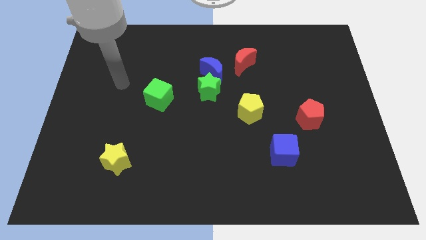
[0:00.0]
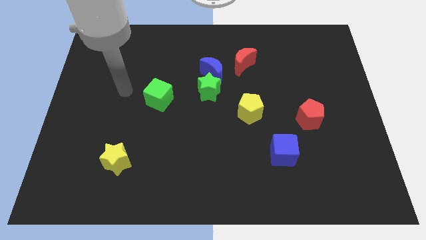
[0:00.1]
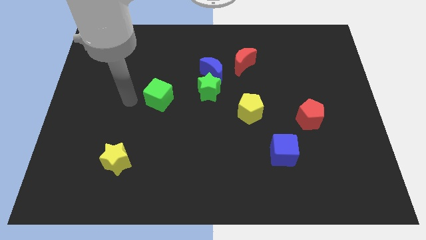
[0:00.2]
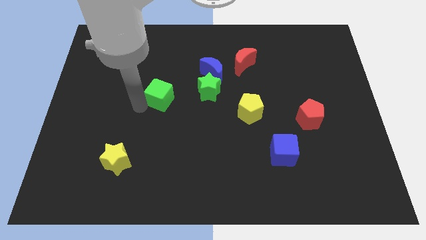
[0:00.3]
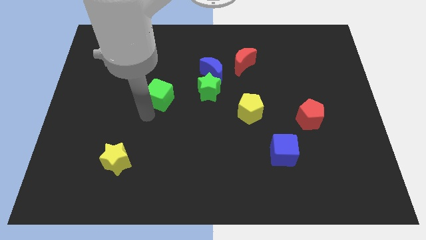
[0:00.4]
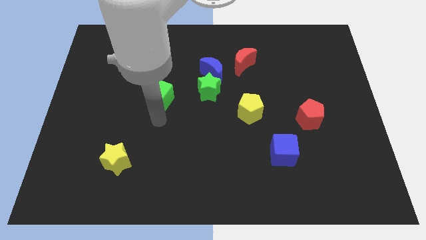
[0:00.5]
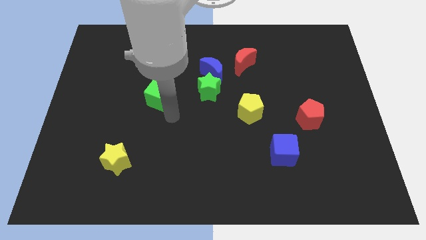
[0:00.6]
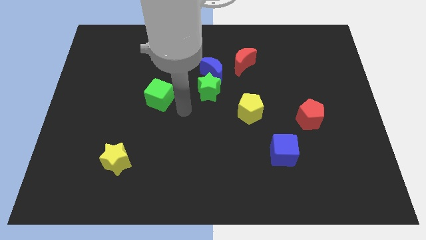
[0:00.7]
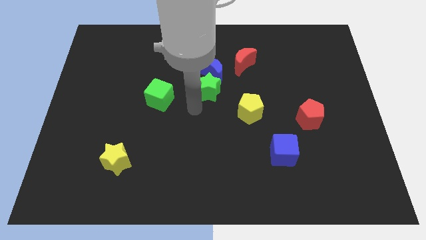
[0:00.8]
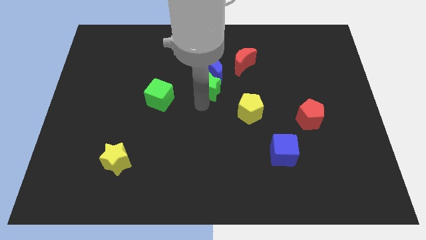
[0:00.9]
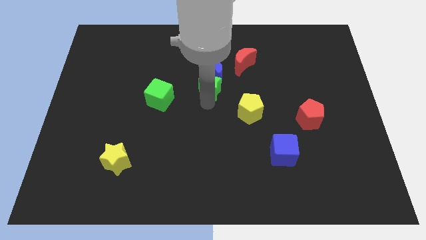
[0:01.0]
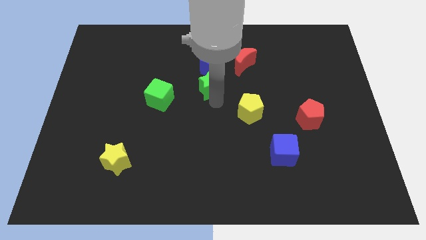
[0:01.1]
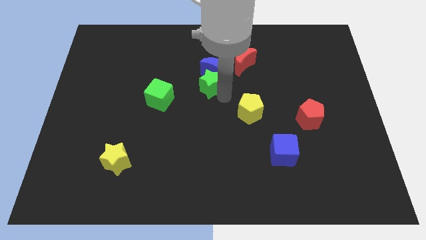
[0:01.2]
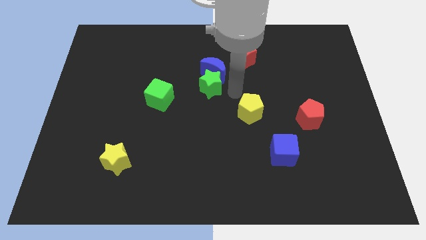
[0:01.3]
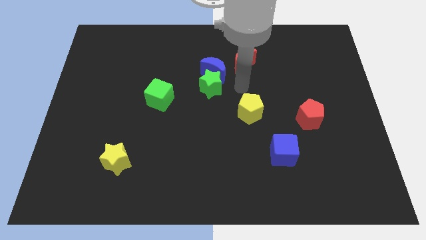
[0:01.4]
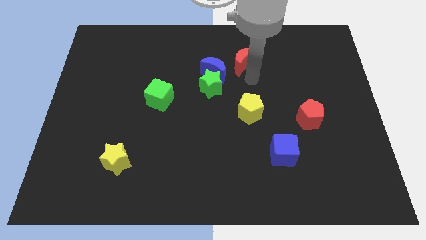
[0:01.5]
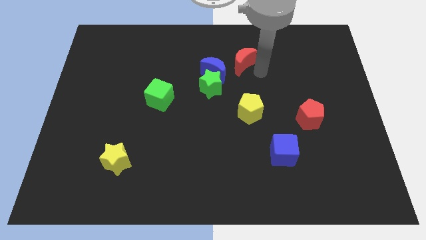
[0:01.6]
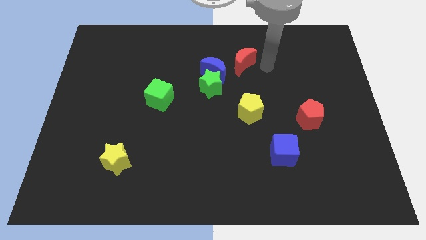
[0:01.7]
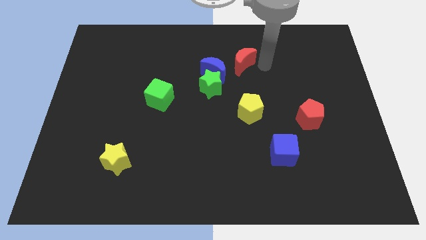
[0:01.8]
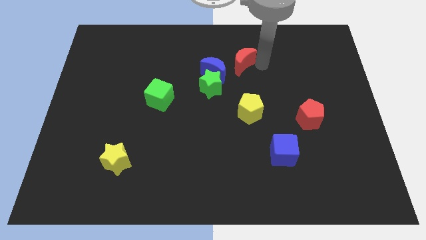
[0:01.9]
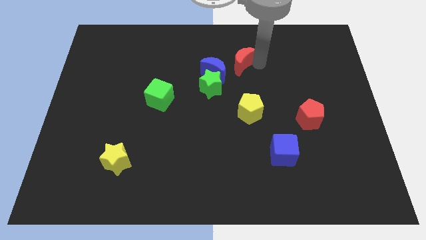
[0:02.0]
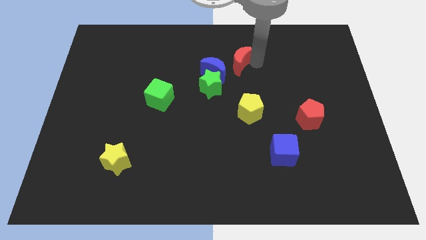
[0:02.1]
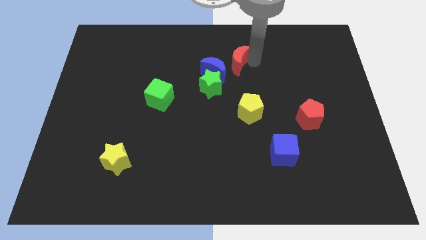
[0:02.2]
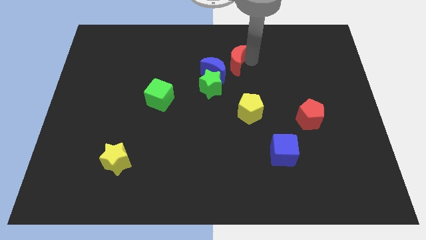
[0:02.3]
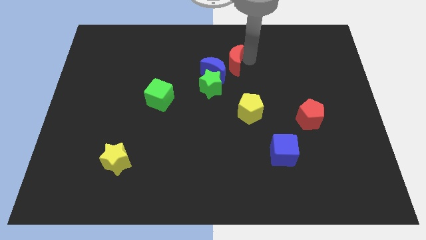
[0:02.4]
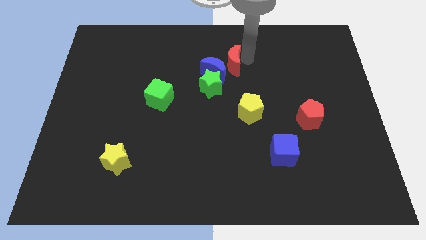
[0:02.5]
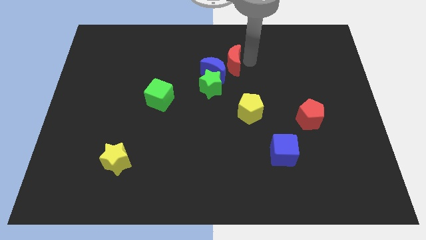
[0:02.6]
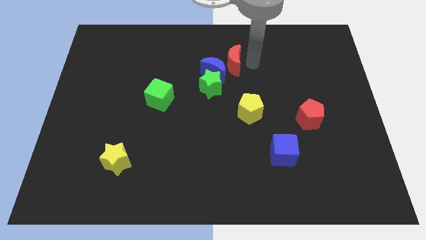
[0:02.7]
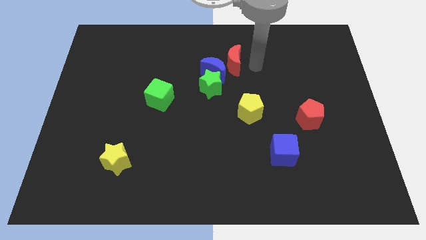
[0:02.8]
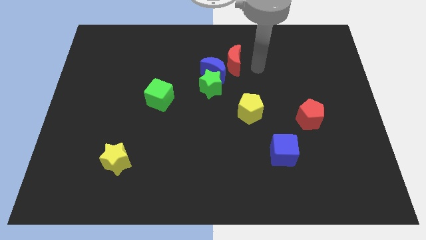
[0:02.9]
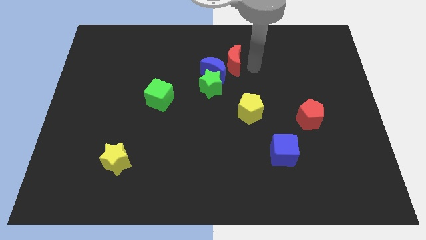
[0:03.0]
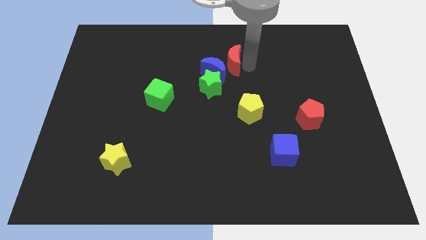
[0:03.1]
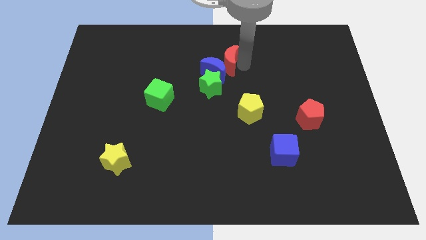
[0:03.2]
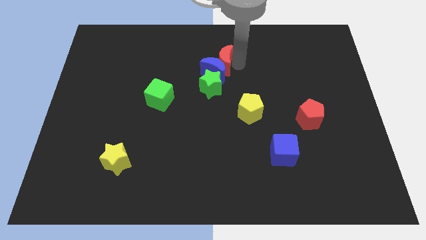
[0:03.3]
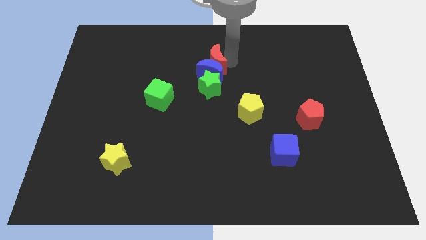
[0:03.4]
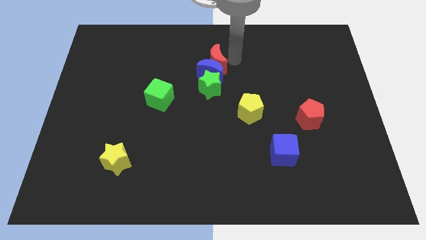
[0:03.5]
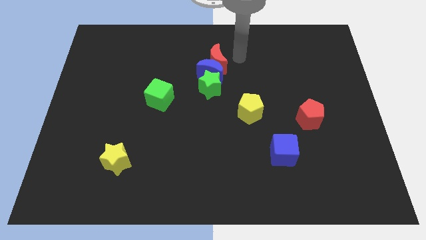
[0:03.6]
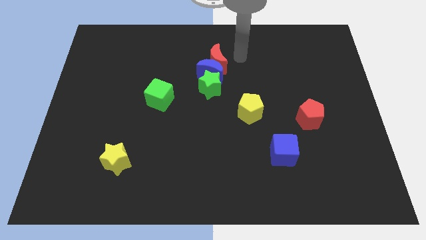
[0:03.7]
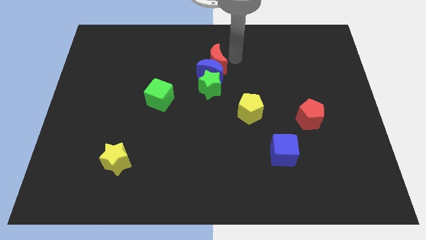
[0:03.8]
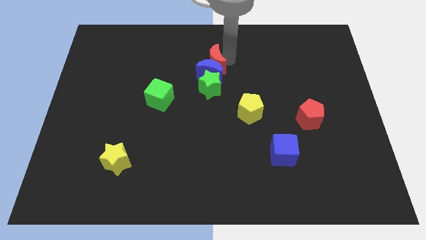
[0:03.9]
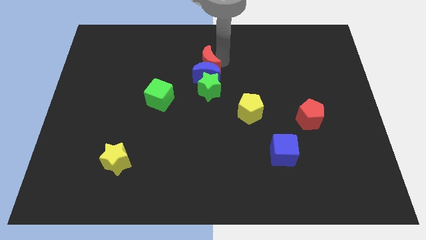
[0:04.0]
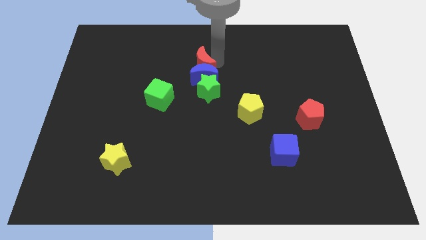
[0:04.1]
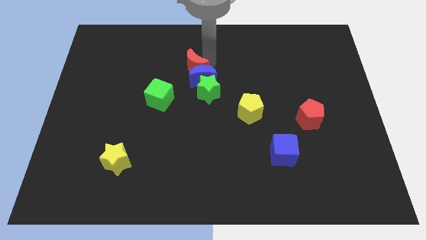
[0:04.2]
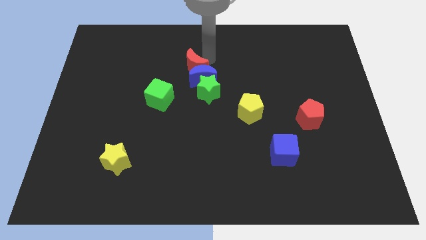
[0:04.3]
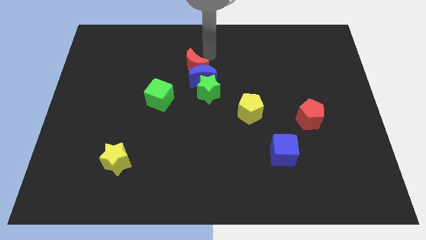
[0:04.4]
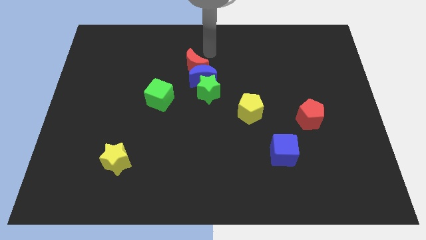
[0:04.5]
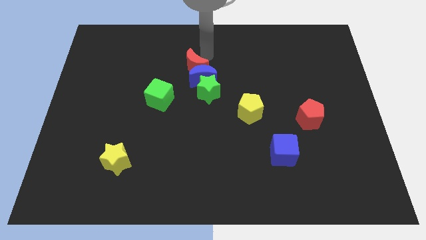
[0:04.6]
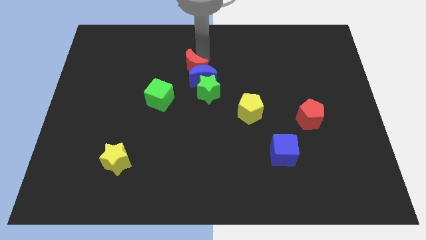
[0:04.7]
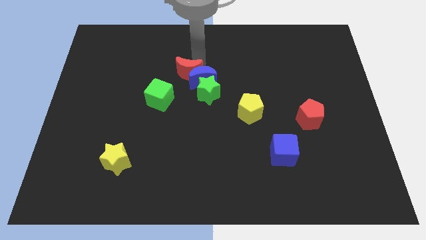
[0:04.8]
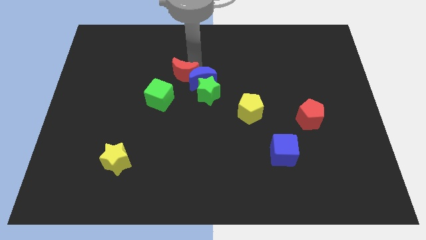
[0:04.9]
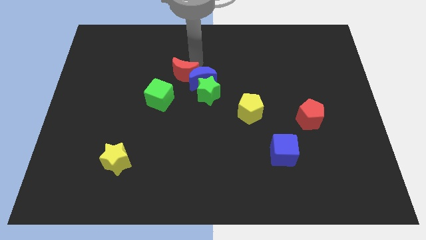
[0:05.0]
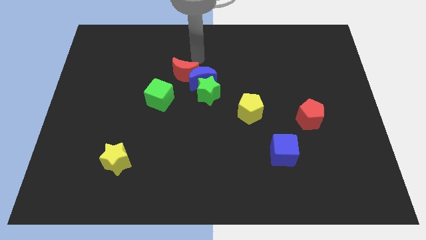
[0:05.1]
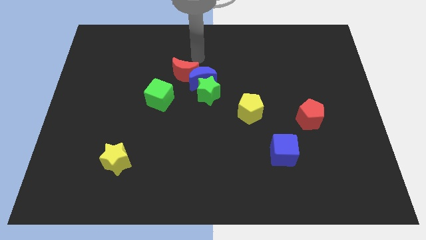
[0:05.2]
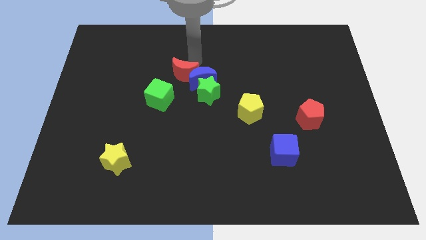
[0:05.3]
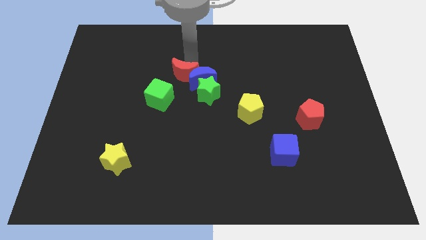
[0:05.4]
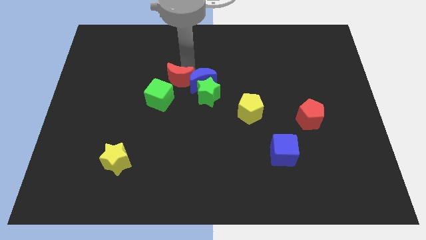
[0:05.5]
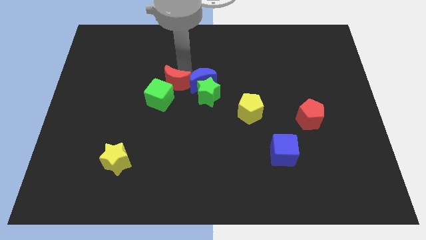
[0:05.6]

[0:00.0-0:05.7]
put the red moon to the green cube

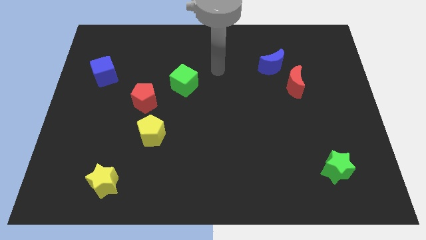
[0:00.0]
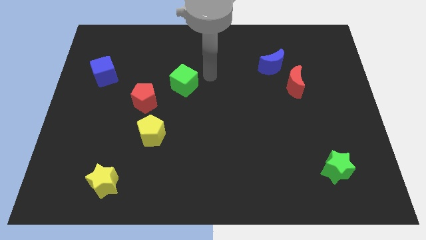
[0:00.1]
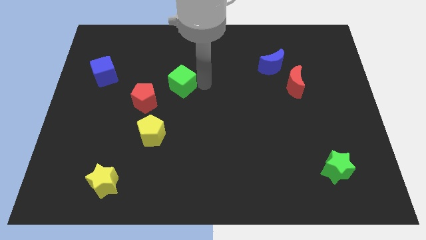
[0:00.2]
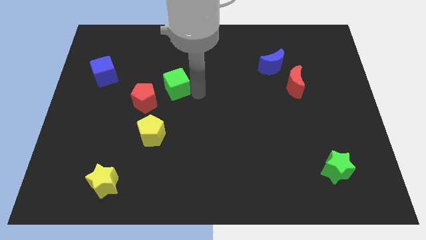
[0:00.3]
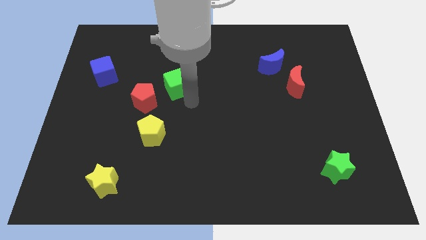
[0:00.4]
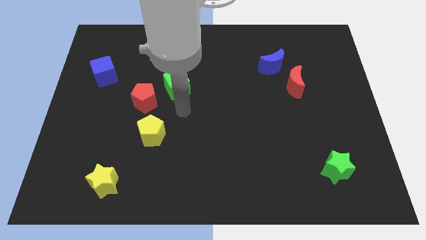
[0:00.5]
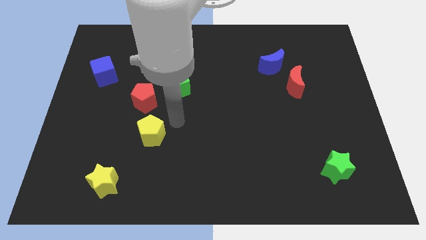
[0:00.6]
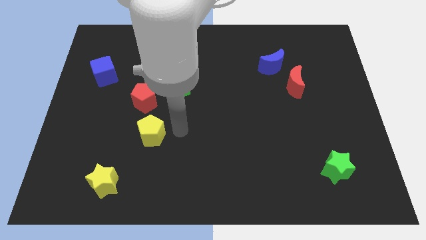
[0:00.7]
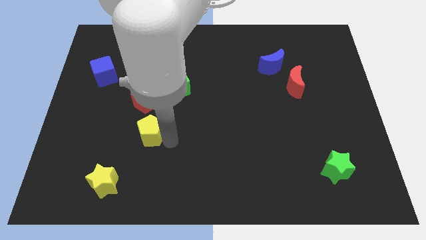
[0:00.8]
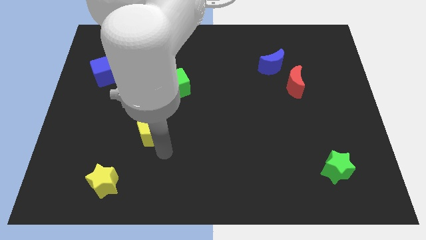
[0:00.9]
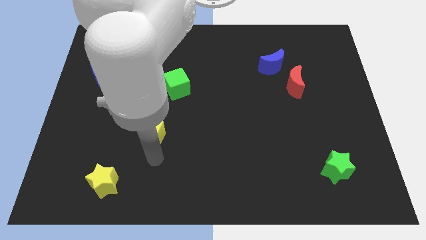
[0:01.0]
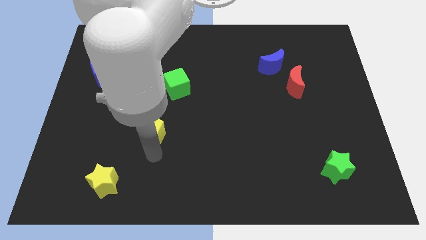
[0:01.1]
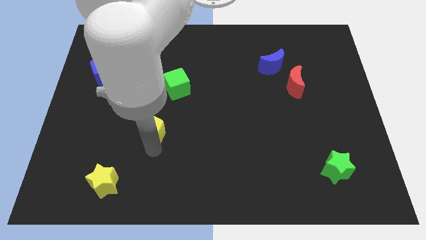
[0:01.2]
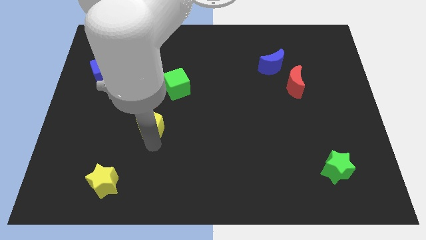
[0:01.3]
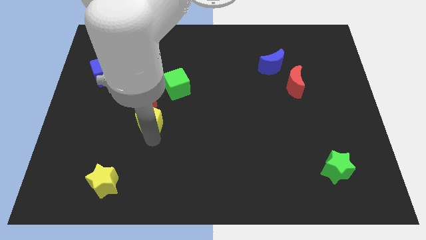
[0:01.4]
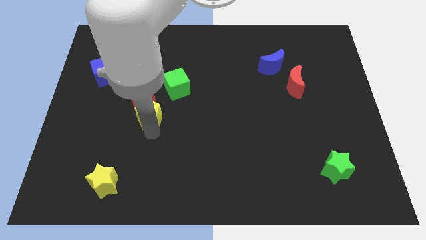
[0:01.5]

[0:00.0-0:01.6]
push the yellow pentagon towards the red pentagon

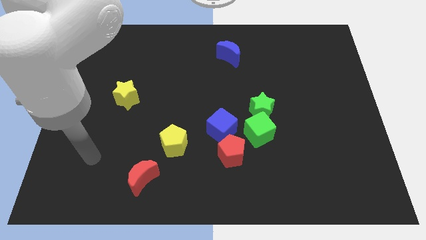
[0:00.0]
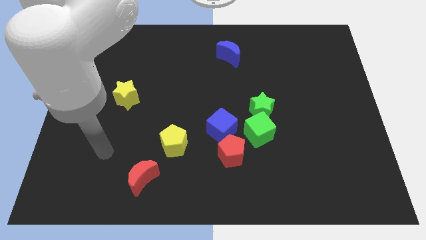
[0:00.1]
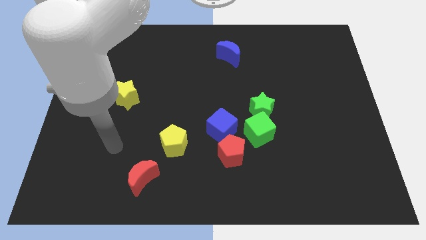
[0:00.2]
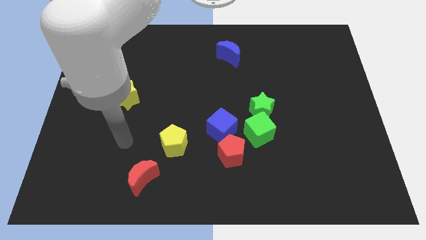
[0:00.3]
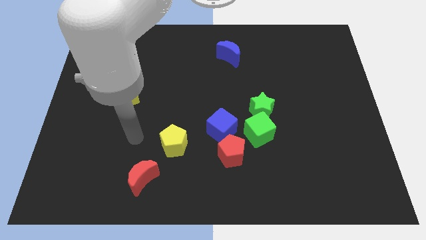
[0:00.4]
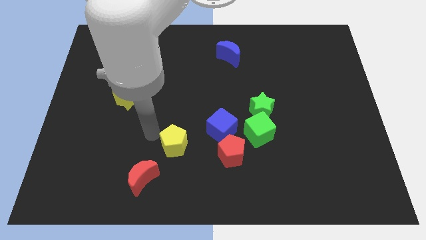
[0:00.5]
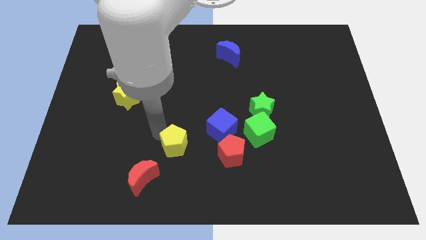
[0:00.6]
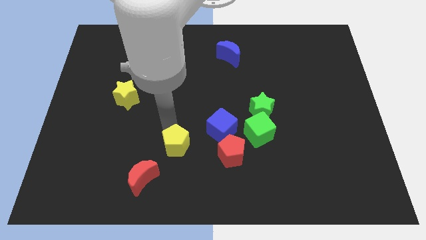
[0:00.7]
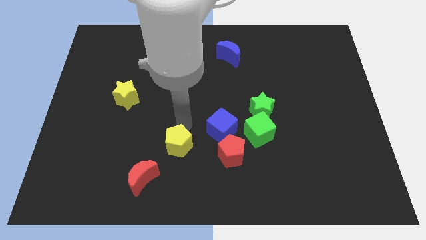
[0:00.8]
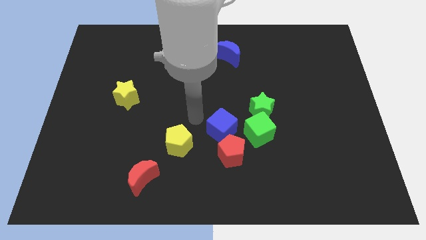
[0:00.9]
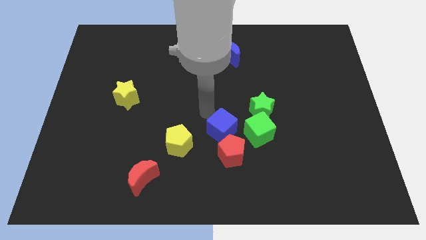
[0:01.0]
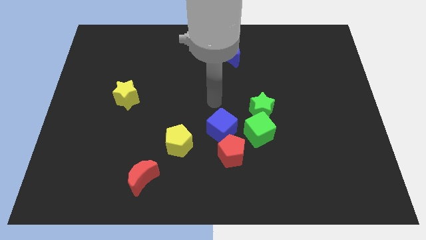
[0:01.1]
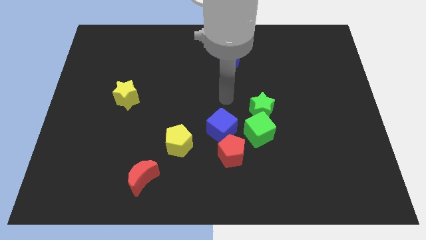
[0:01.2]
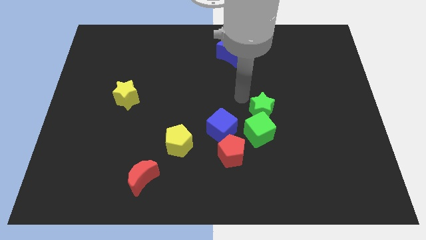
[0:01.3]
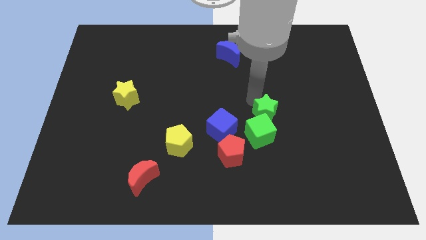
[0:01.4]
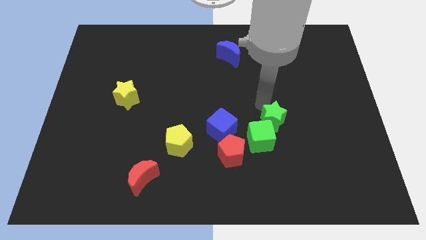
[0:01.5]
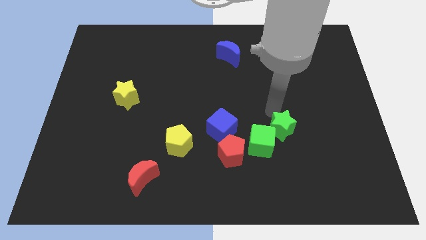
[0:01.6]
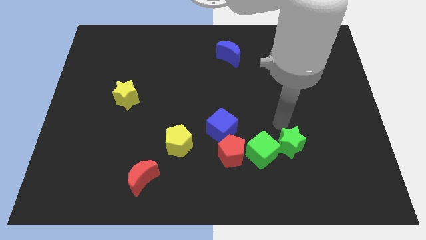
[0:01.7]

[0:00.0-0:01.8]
push the green cube to the red pentagon
